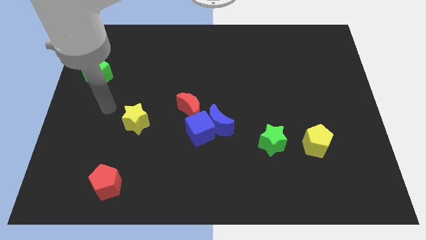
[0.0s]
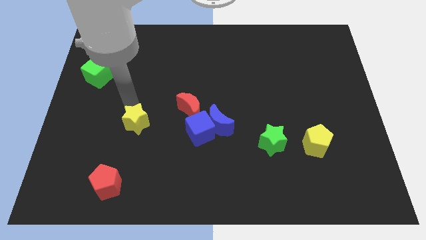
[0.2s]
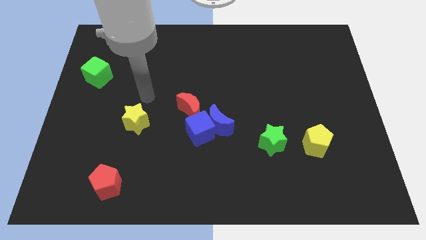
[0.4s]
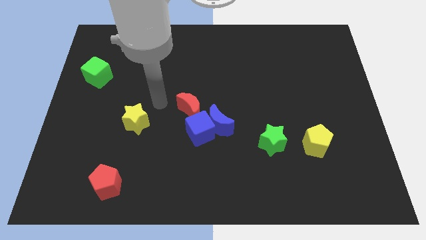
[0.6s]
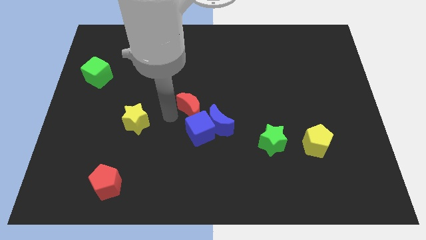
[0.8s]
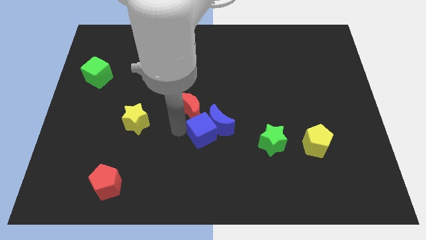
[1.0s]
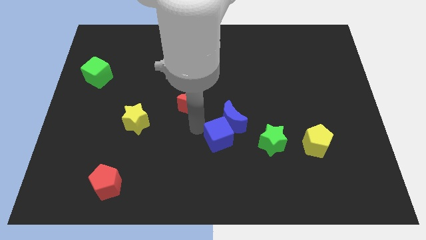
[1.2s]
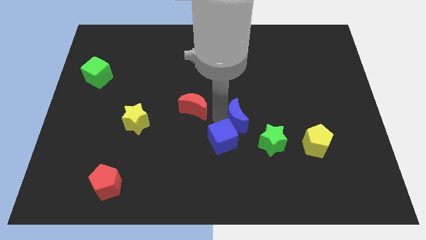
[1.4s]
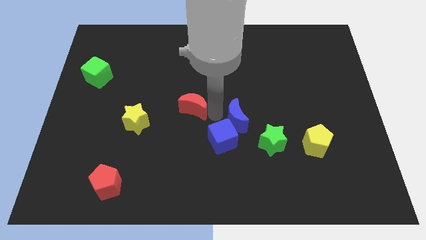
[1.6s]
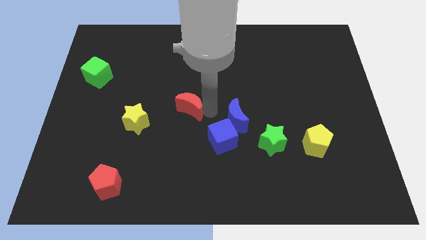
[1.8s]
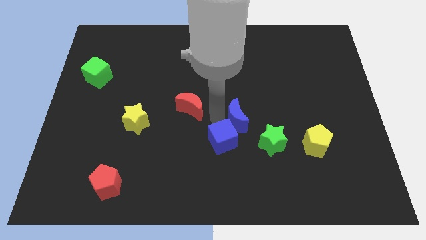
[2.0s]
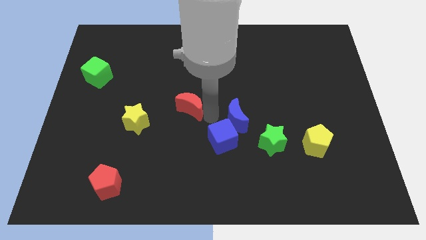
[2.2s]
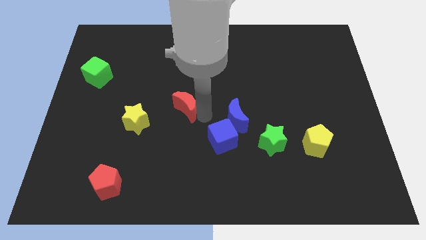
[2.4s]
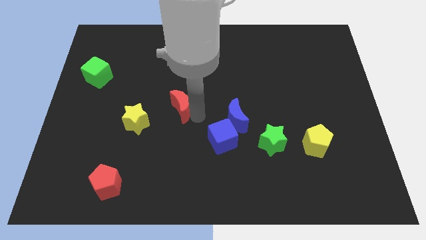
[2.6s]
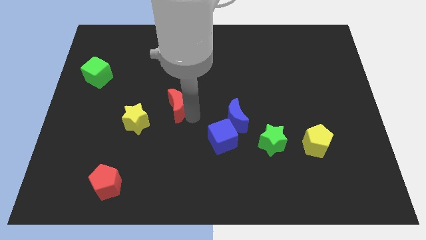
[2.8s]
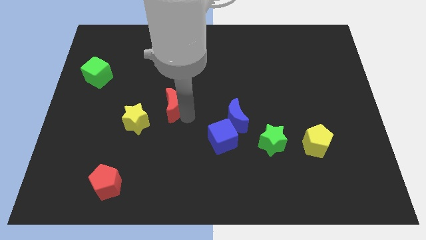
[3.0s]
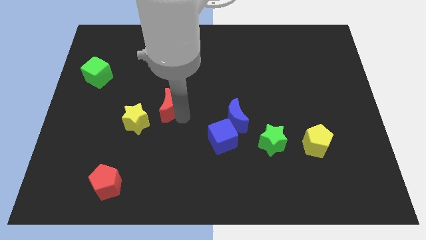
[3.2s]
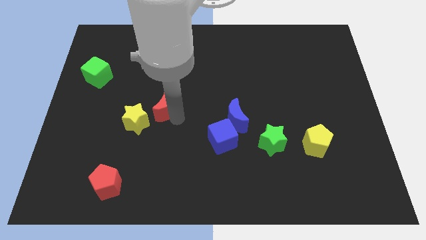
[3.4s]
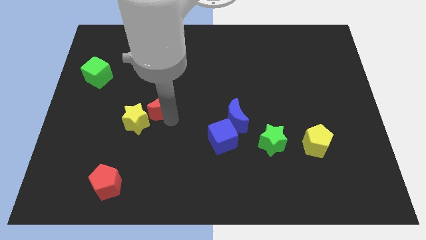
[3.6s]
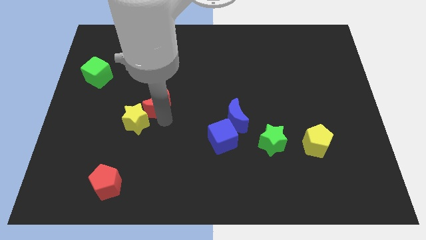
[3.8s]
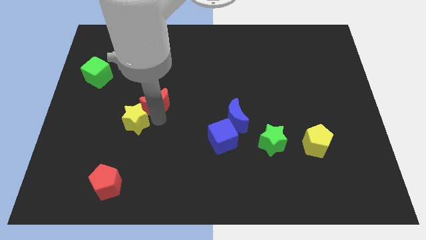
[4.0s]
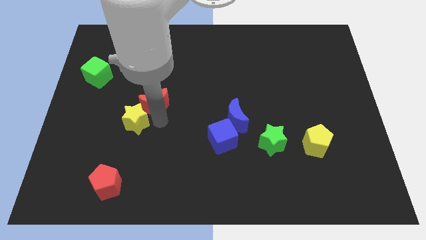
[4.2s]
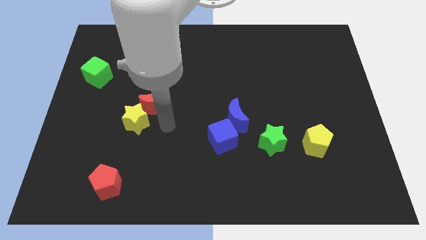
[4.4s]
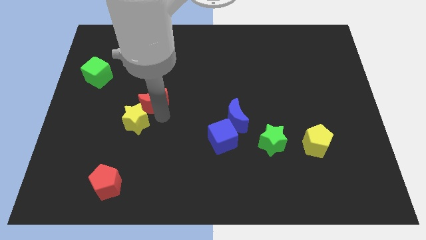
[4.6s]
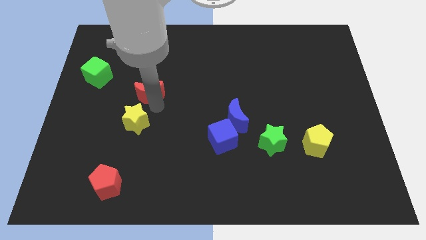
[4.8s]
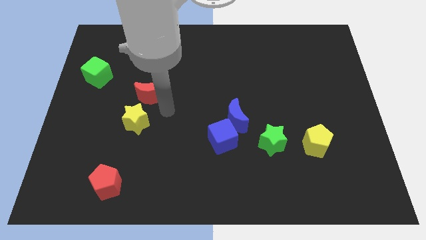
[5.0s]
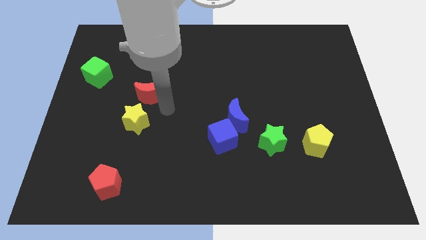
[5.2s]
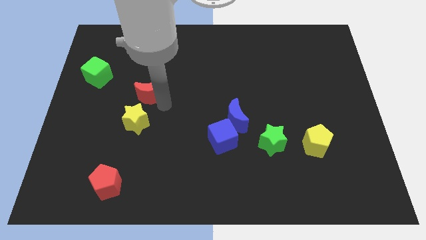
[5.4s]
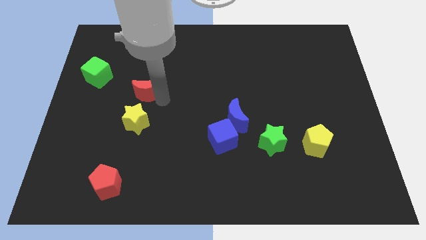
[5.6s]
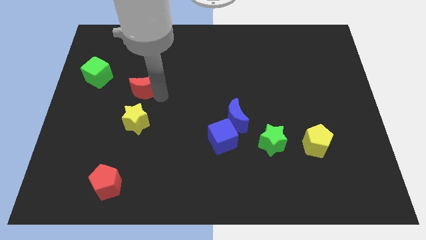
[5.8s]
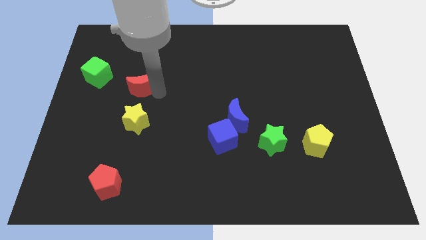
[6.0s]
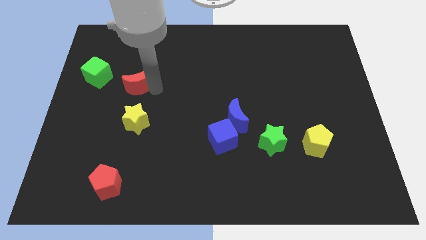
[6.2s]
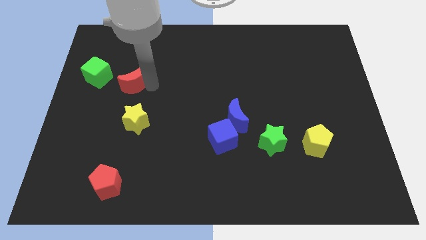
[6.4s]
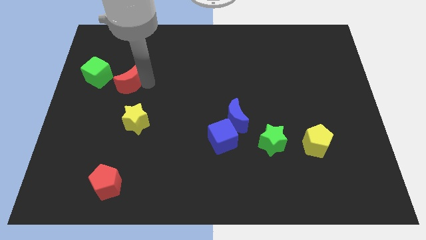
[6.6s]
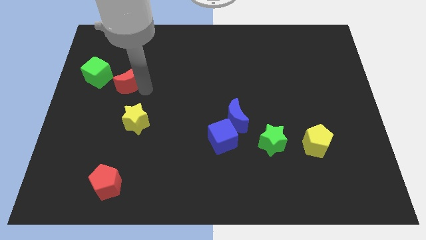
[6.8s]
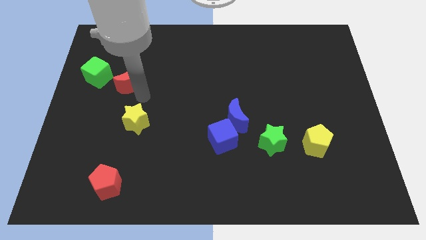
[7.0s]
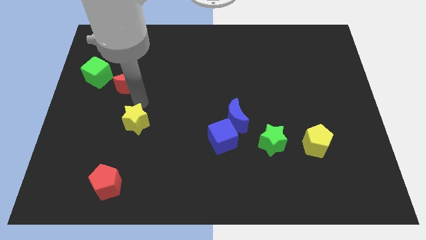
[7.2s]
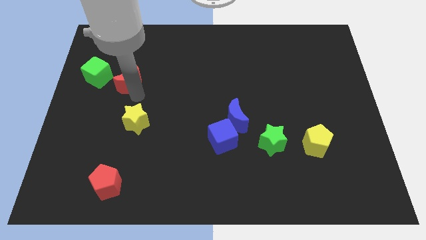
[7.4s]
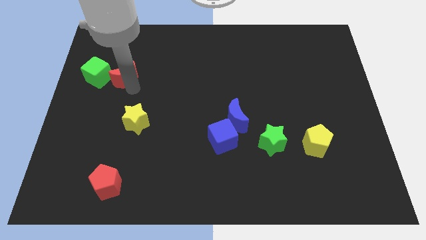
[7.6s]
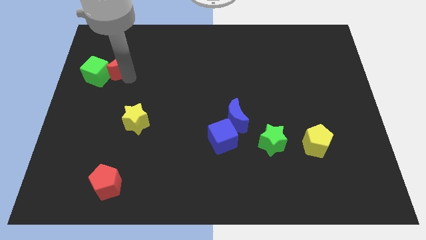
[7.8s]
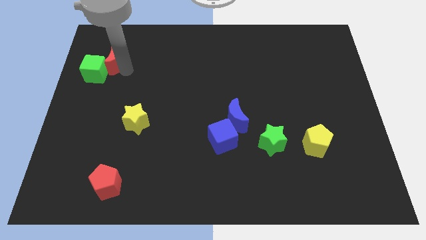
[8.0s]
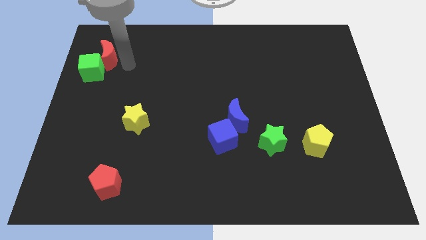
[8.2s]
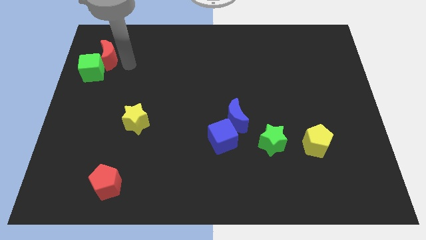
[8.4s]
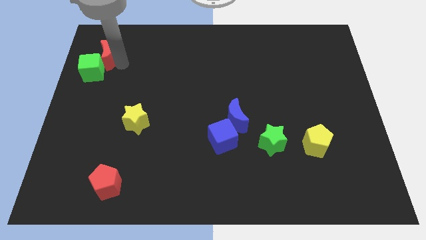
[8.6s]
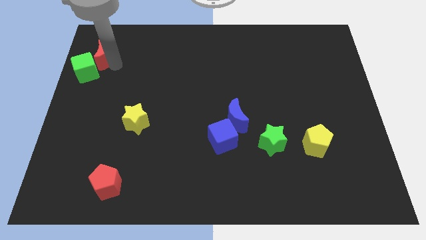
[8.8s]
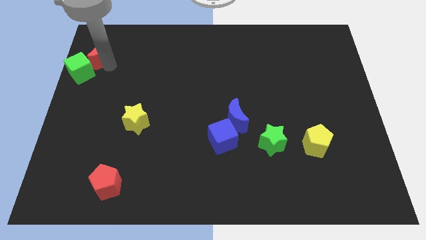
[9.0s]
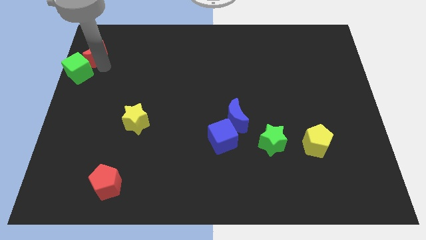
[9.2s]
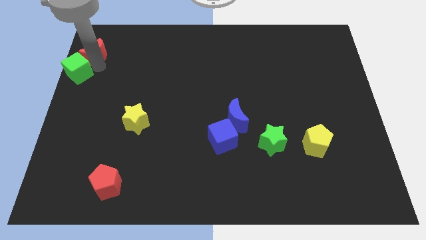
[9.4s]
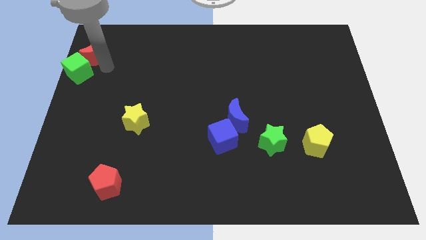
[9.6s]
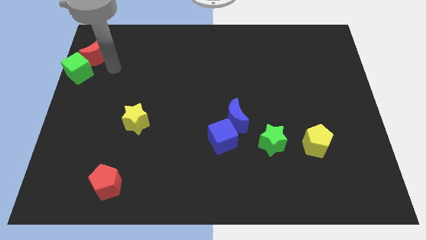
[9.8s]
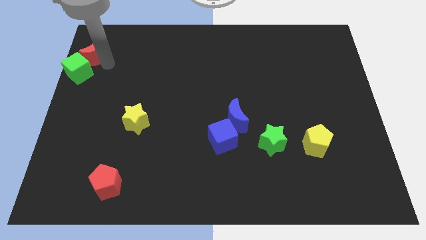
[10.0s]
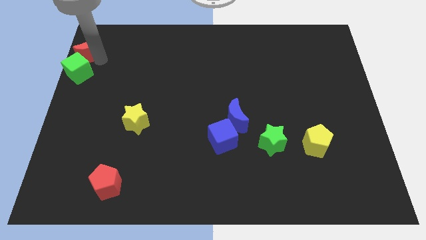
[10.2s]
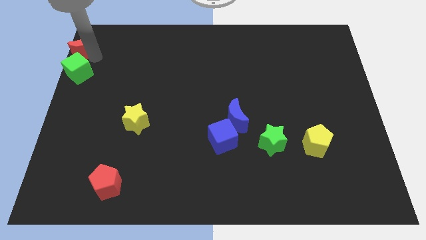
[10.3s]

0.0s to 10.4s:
push the red moon to the upper left corner
